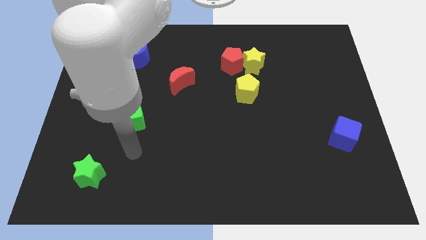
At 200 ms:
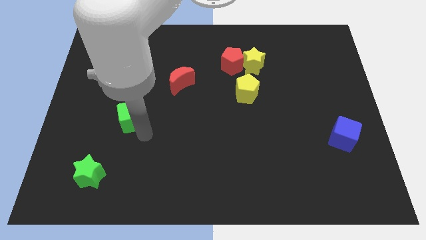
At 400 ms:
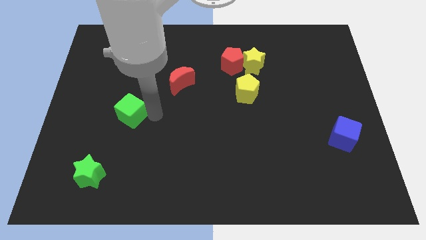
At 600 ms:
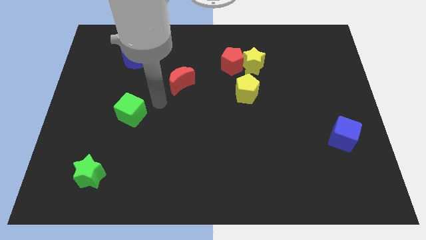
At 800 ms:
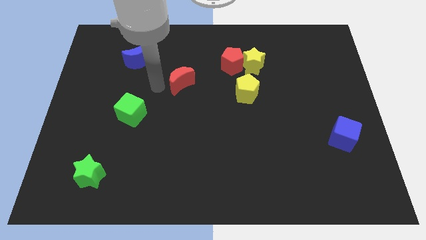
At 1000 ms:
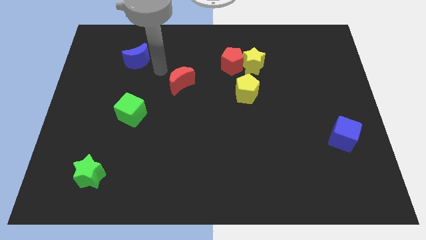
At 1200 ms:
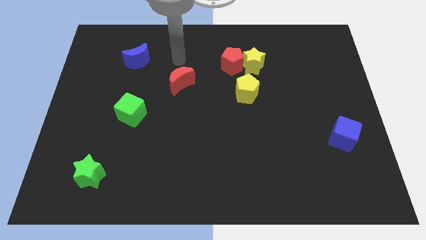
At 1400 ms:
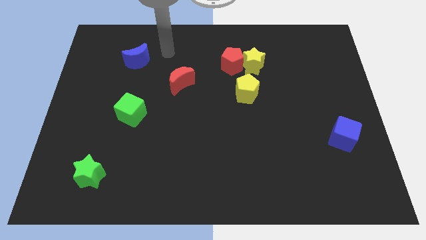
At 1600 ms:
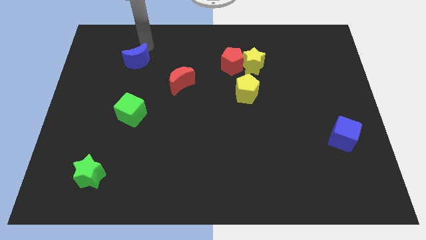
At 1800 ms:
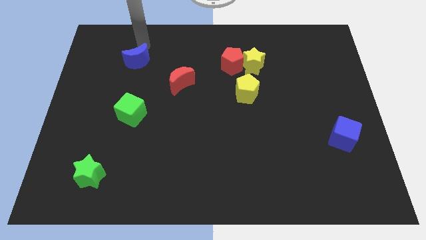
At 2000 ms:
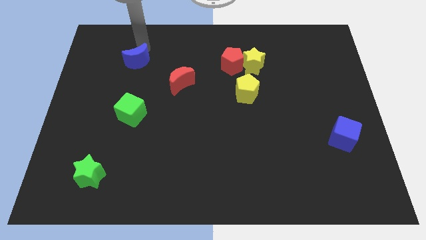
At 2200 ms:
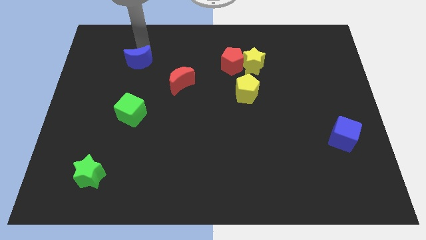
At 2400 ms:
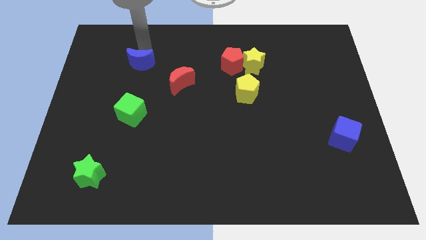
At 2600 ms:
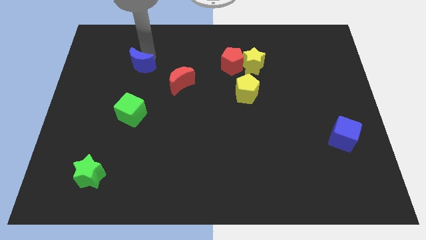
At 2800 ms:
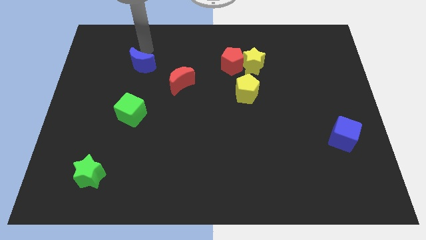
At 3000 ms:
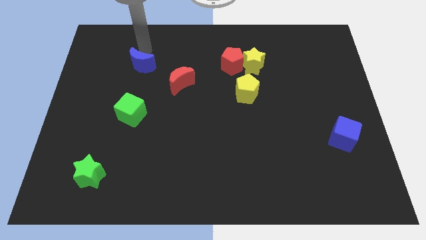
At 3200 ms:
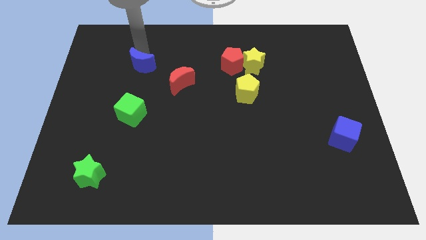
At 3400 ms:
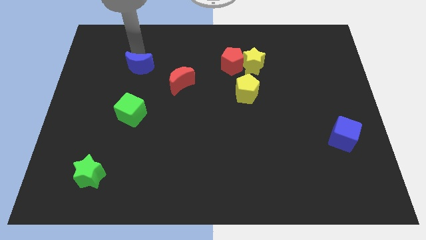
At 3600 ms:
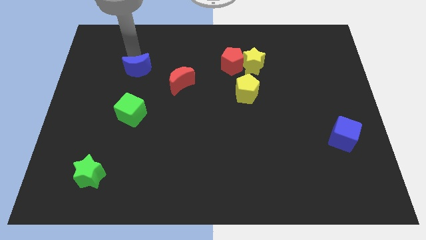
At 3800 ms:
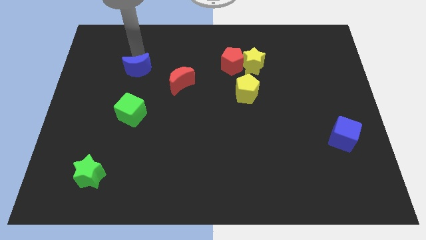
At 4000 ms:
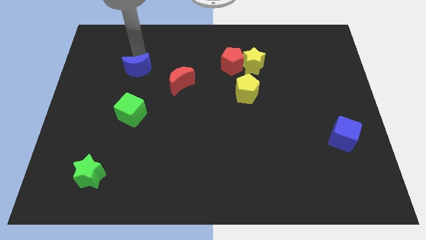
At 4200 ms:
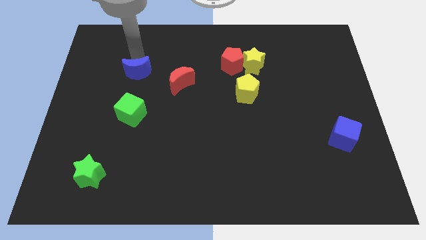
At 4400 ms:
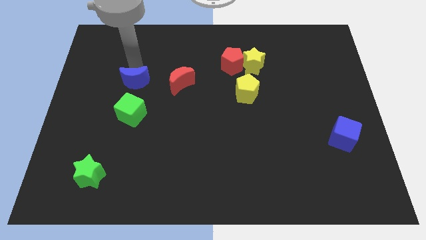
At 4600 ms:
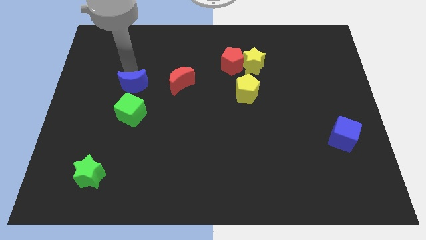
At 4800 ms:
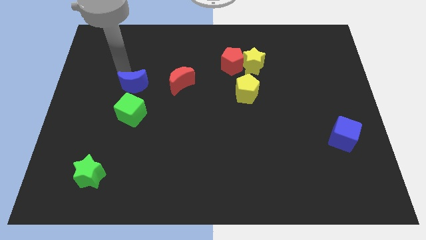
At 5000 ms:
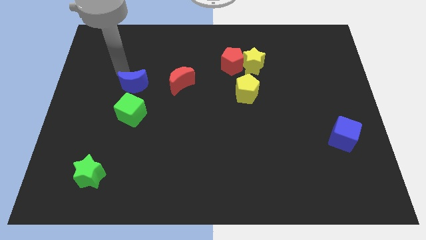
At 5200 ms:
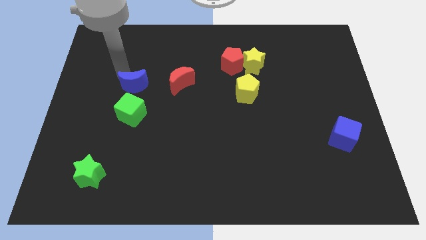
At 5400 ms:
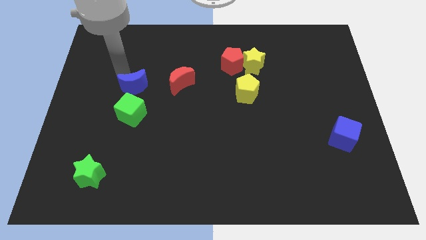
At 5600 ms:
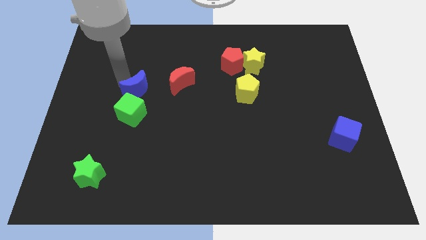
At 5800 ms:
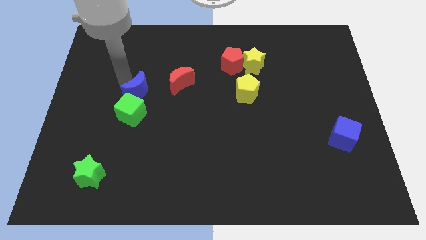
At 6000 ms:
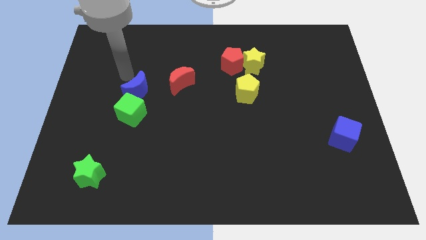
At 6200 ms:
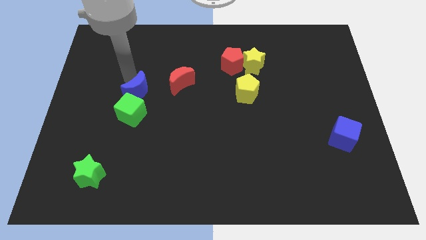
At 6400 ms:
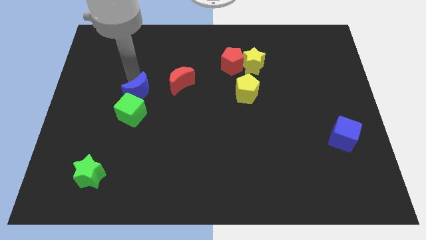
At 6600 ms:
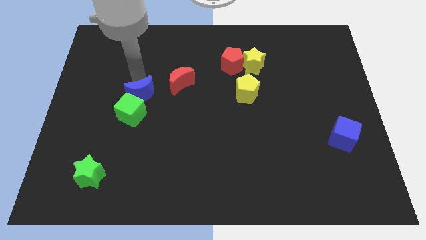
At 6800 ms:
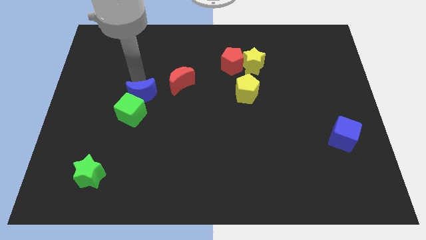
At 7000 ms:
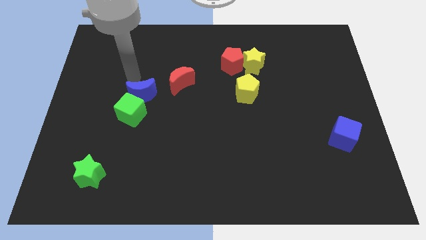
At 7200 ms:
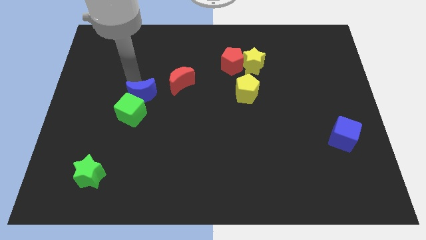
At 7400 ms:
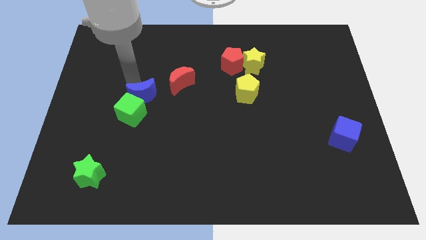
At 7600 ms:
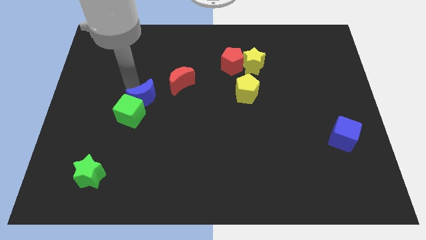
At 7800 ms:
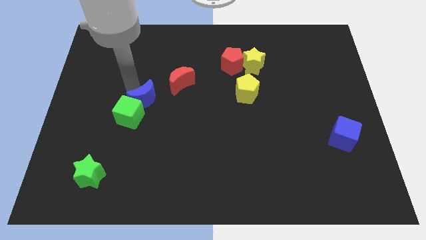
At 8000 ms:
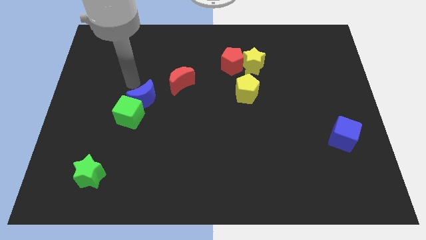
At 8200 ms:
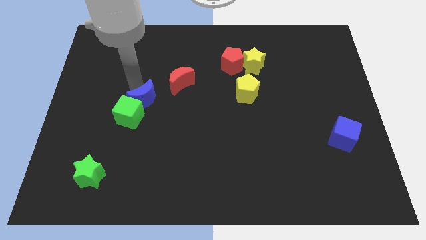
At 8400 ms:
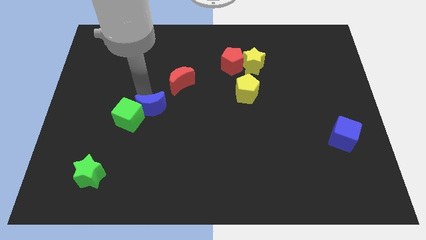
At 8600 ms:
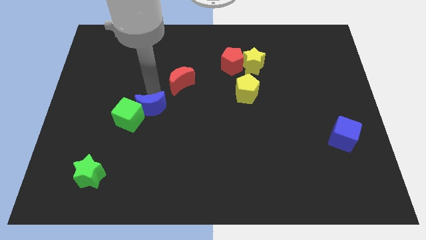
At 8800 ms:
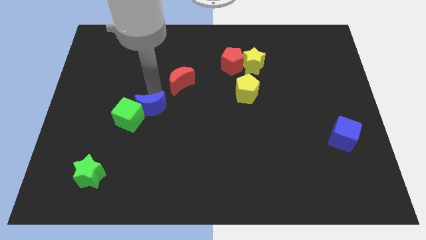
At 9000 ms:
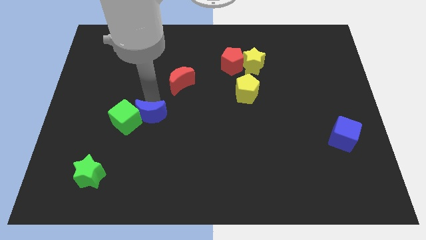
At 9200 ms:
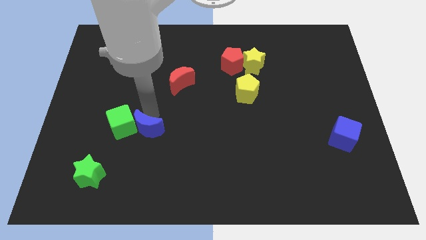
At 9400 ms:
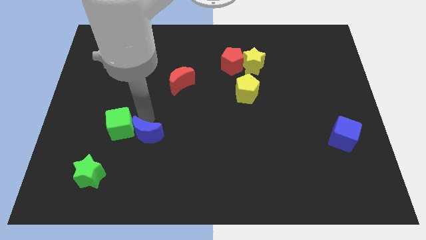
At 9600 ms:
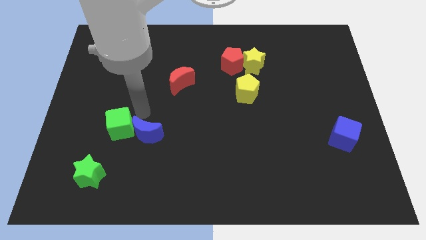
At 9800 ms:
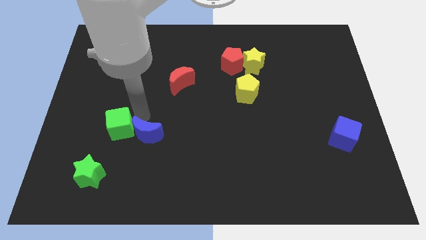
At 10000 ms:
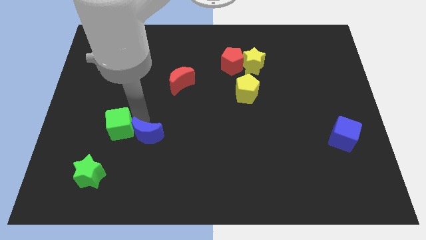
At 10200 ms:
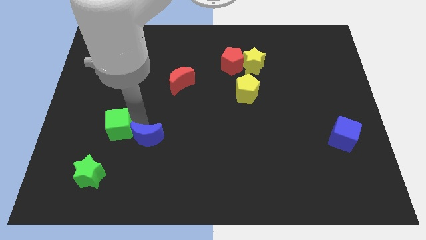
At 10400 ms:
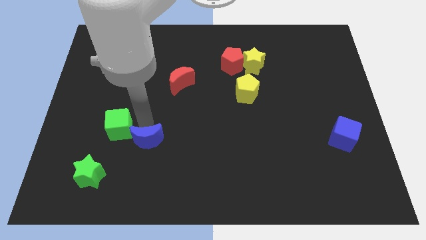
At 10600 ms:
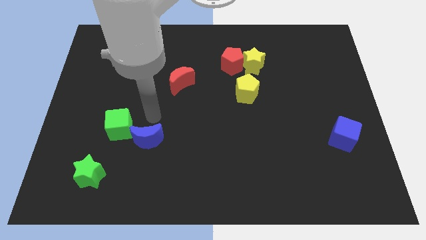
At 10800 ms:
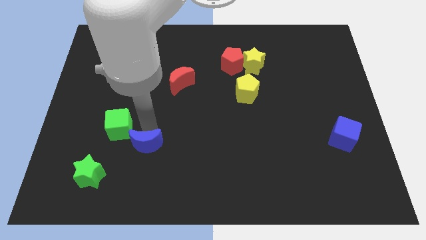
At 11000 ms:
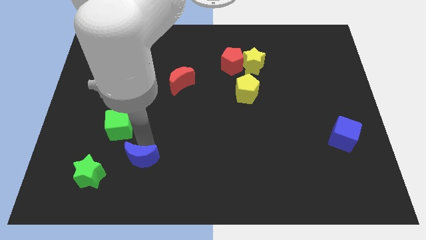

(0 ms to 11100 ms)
slide the blue moon right of the green star
